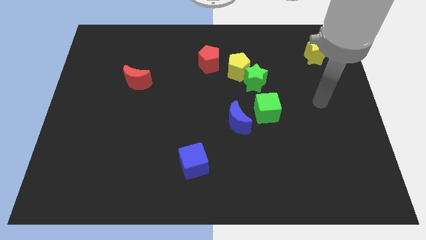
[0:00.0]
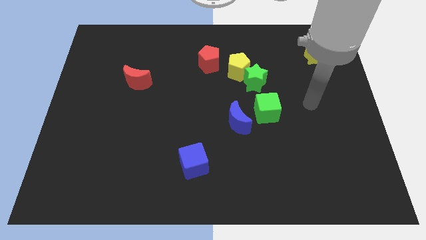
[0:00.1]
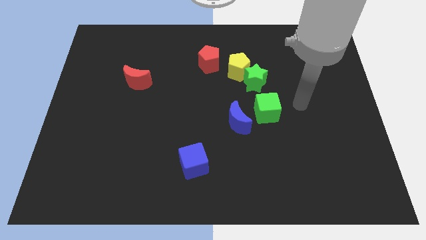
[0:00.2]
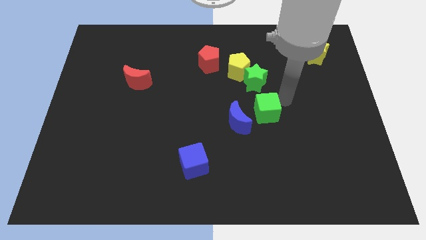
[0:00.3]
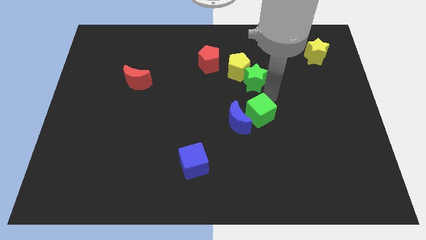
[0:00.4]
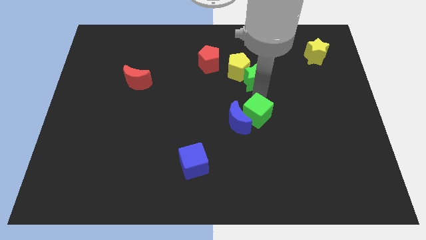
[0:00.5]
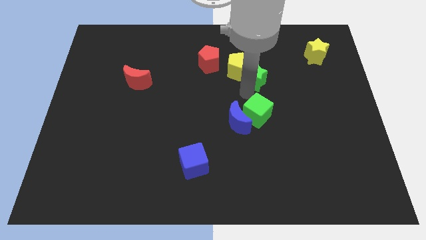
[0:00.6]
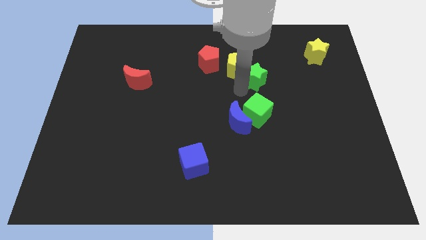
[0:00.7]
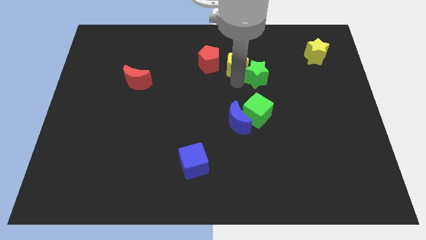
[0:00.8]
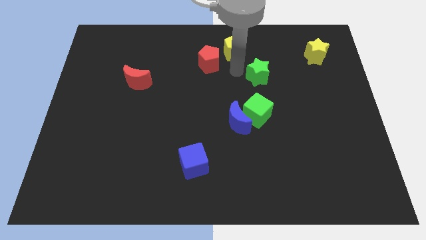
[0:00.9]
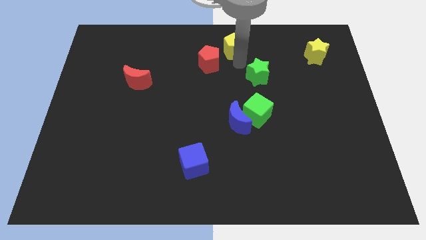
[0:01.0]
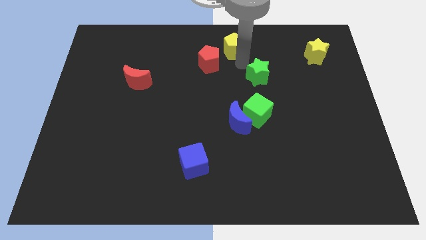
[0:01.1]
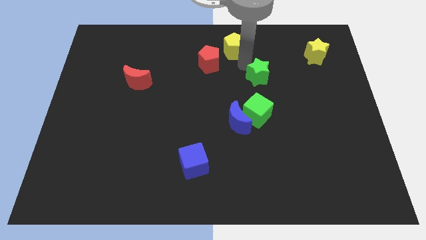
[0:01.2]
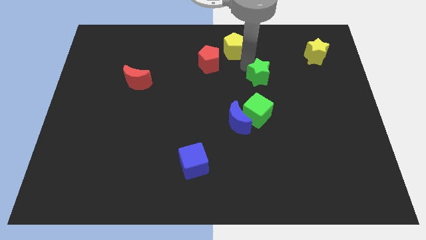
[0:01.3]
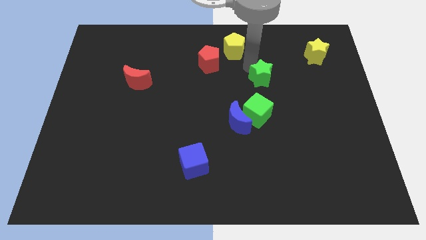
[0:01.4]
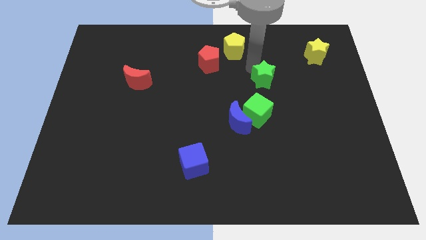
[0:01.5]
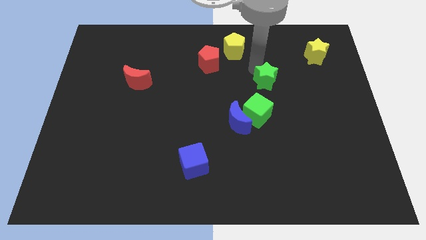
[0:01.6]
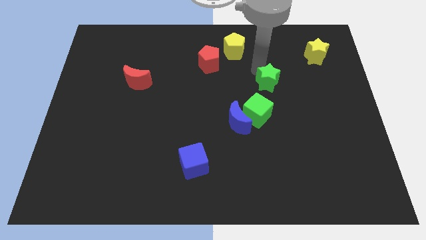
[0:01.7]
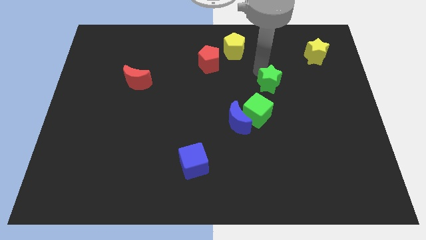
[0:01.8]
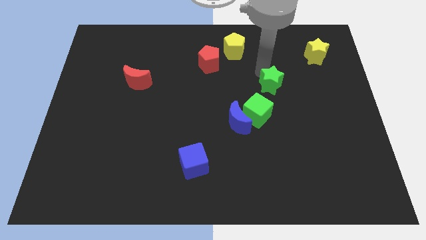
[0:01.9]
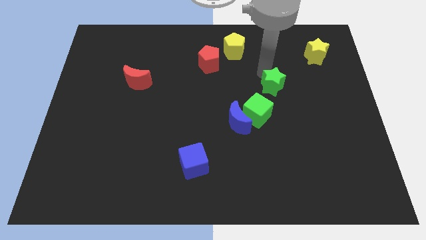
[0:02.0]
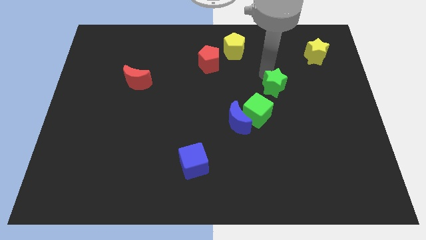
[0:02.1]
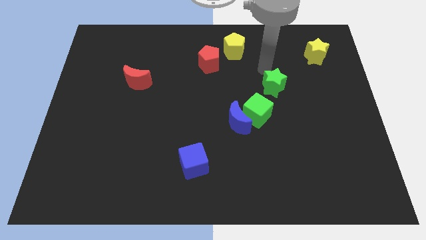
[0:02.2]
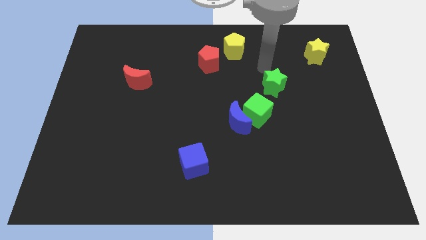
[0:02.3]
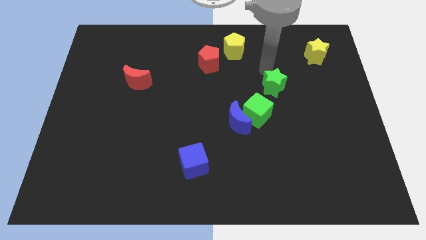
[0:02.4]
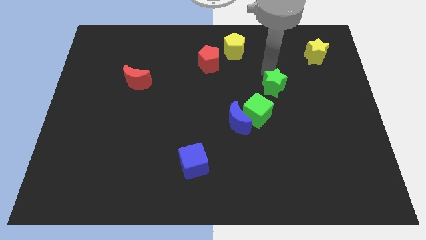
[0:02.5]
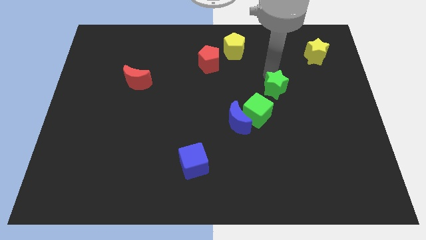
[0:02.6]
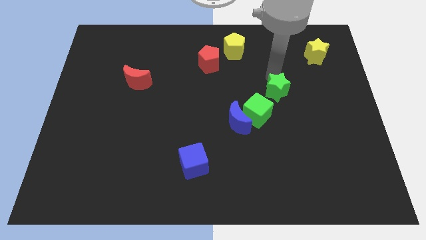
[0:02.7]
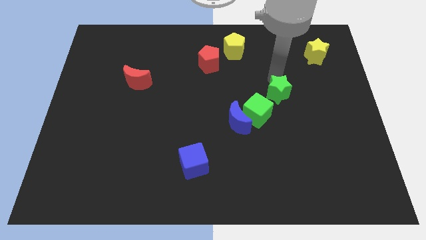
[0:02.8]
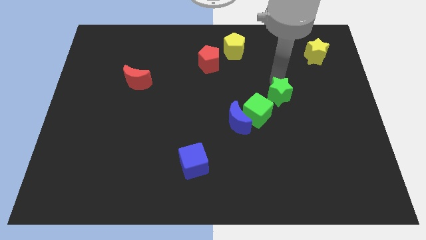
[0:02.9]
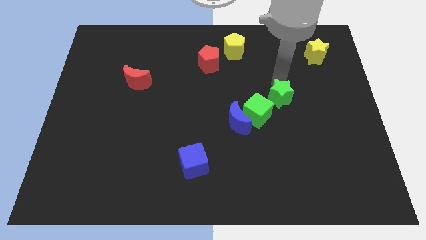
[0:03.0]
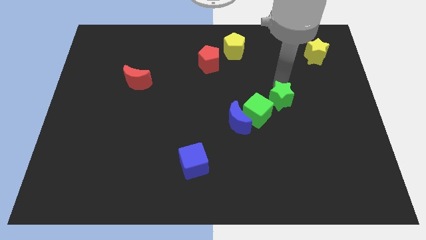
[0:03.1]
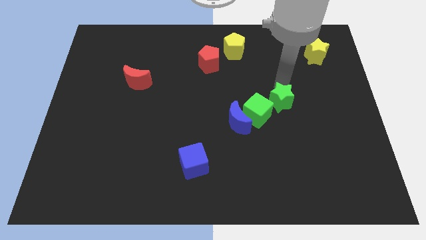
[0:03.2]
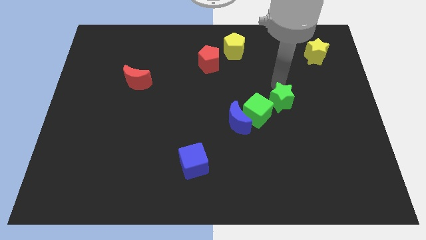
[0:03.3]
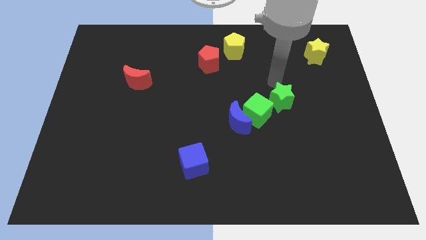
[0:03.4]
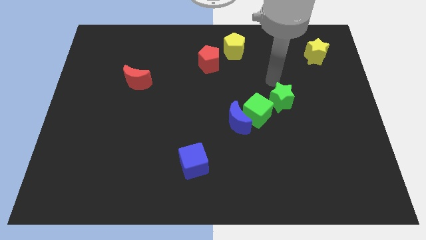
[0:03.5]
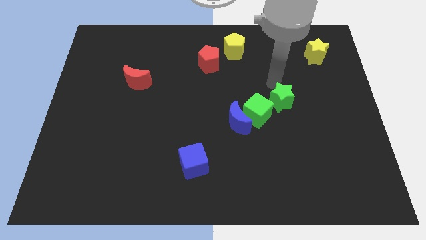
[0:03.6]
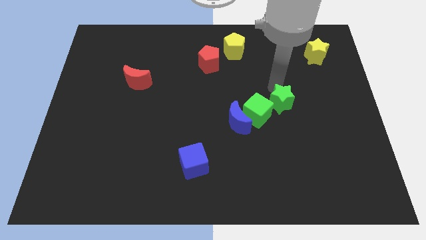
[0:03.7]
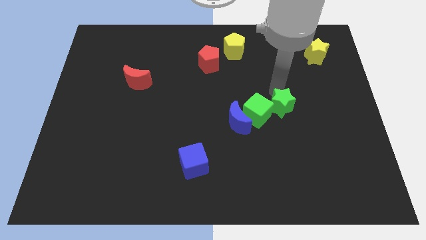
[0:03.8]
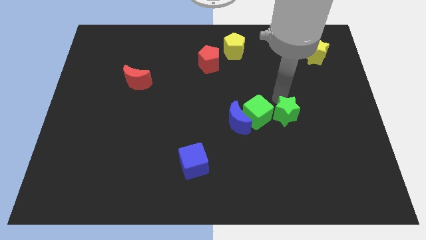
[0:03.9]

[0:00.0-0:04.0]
move the green star a little downwards

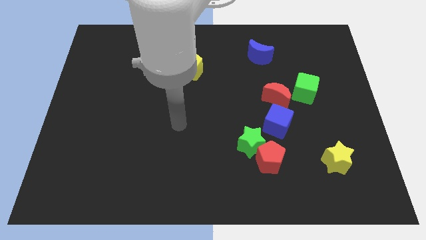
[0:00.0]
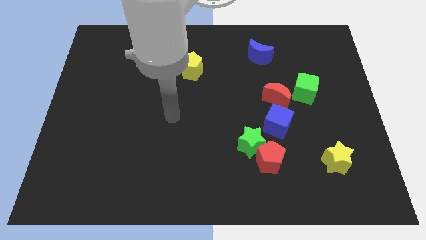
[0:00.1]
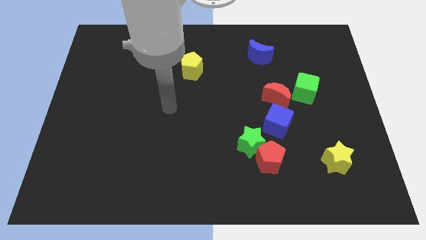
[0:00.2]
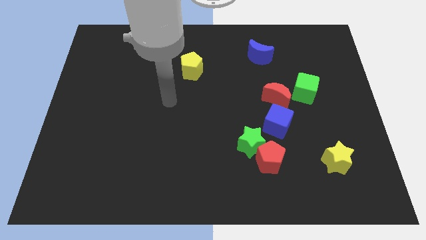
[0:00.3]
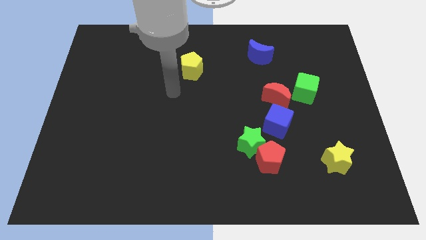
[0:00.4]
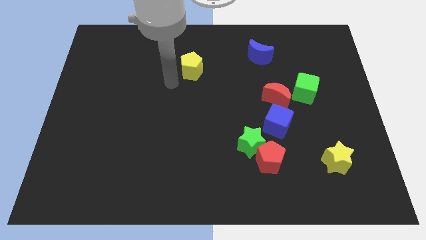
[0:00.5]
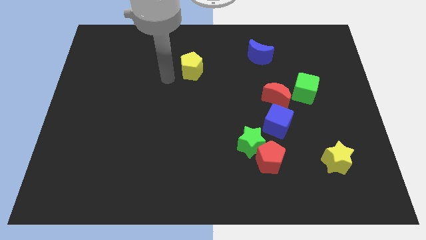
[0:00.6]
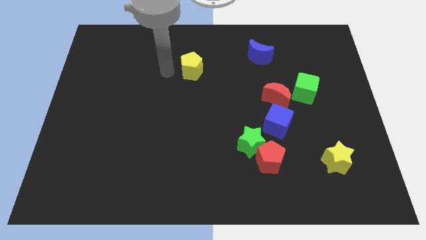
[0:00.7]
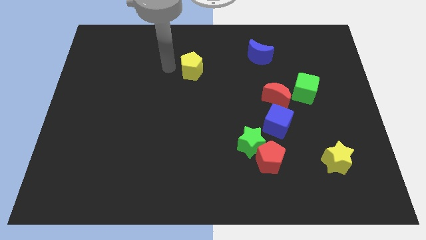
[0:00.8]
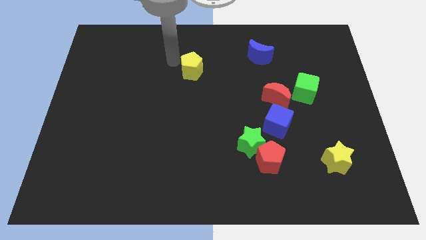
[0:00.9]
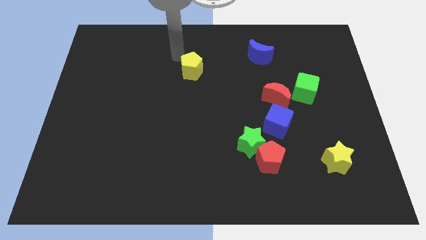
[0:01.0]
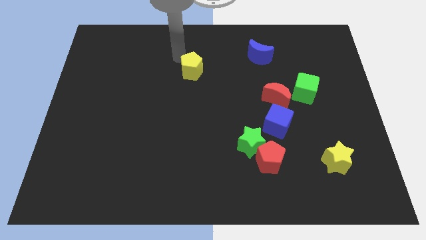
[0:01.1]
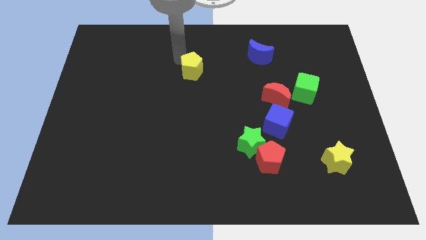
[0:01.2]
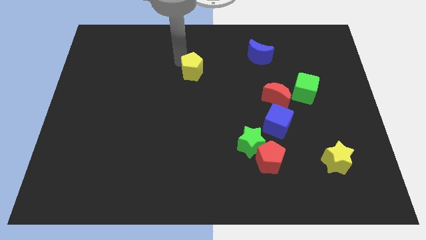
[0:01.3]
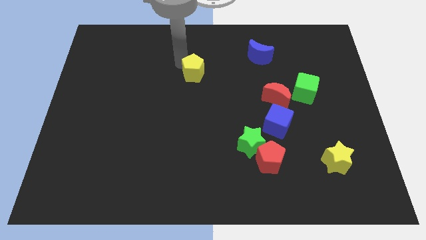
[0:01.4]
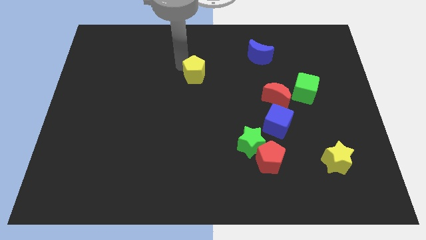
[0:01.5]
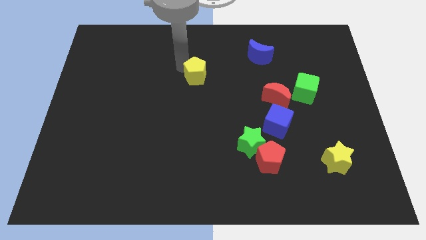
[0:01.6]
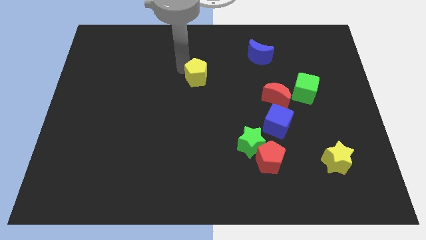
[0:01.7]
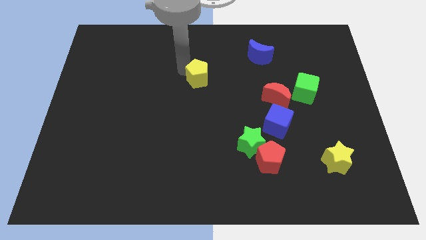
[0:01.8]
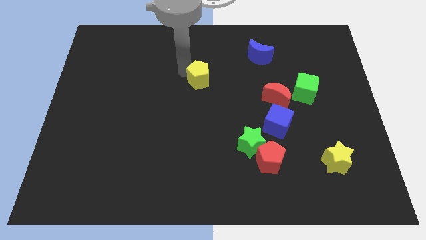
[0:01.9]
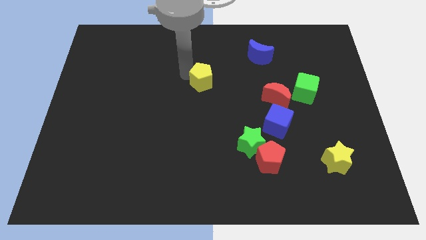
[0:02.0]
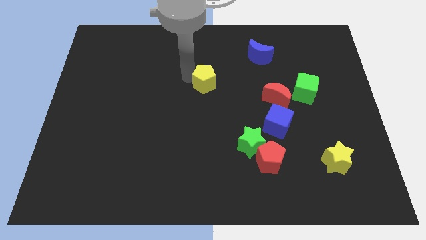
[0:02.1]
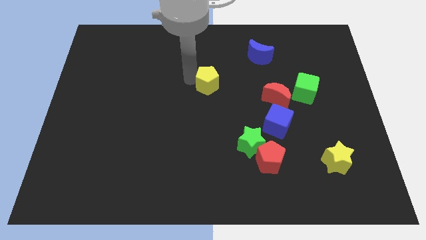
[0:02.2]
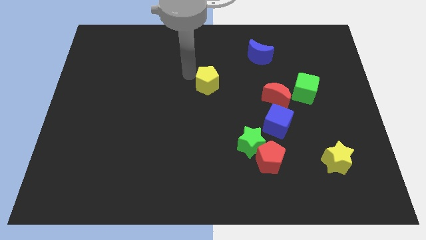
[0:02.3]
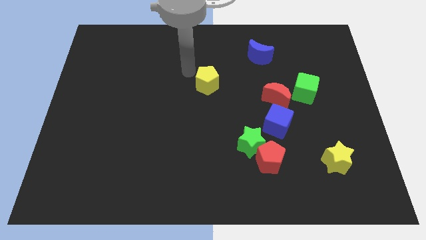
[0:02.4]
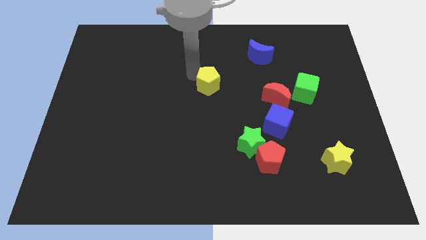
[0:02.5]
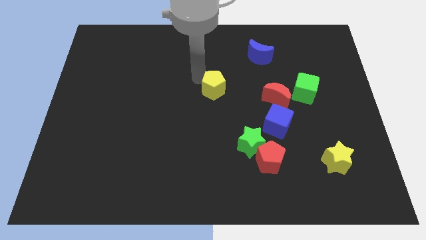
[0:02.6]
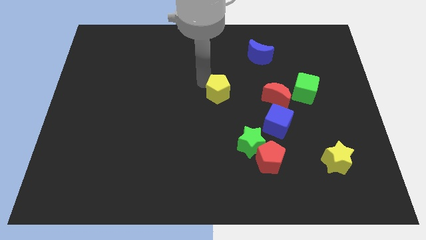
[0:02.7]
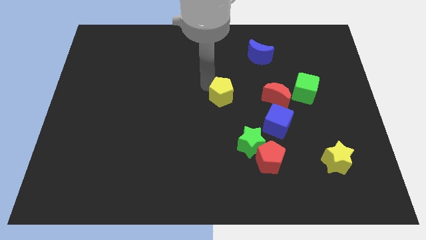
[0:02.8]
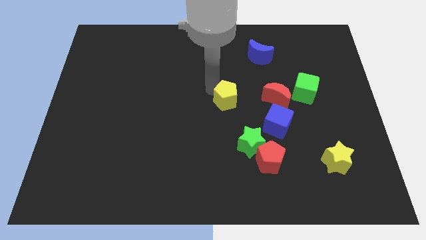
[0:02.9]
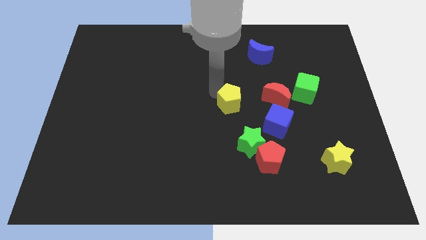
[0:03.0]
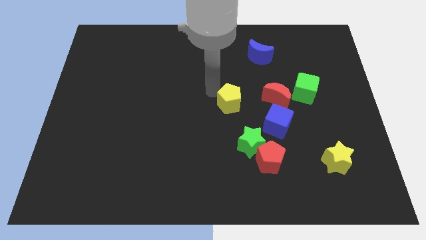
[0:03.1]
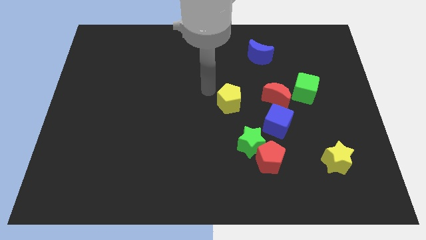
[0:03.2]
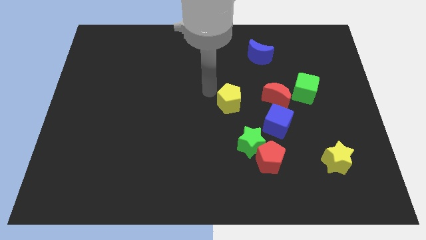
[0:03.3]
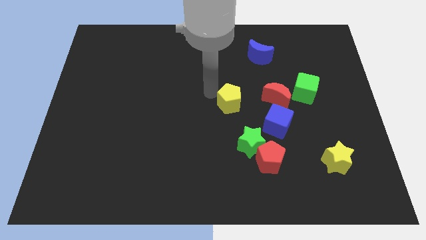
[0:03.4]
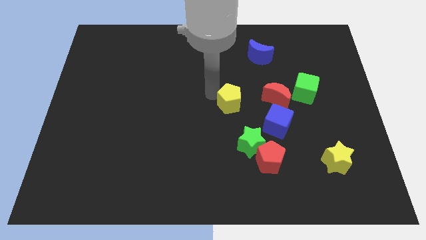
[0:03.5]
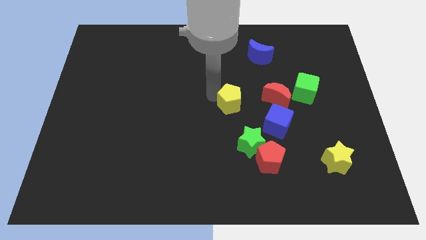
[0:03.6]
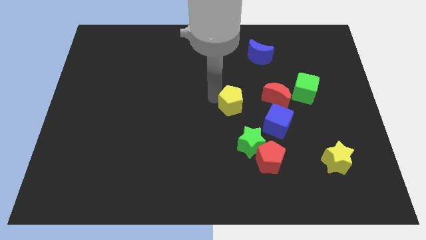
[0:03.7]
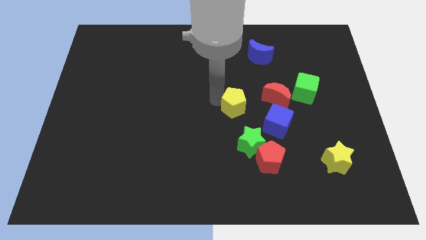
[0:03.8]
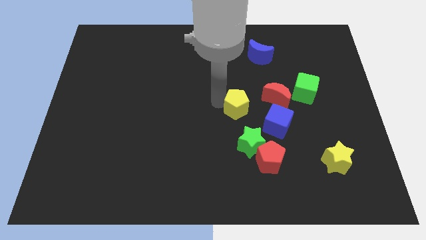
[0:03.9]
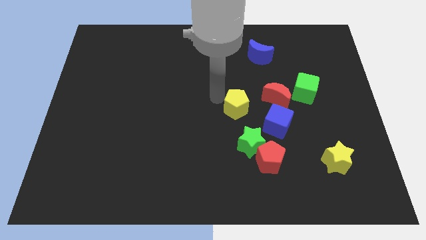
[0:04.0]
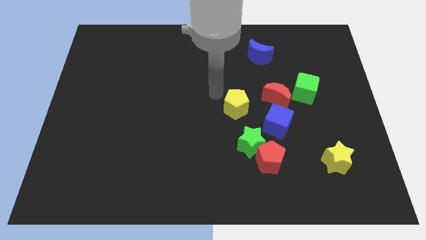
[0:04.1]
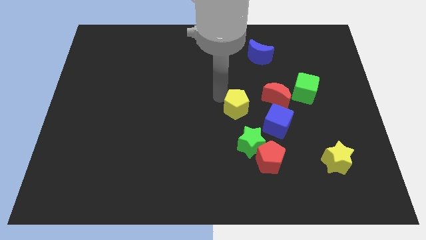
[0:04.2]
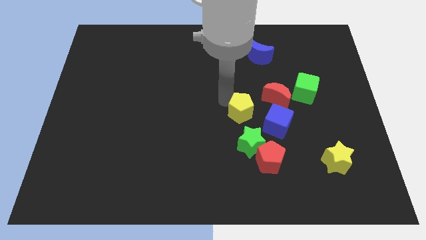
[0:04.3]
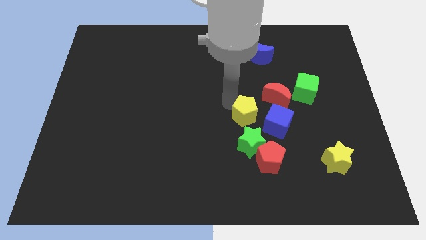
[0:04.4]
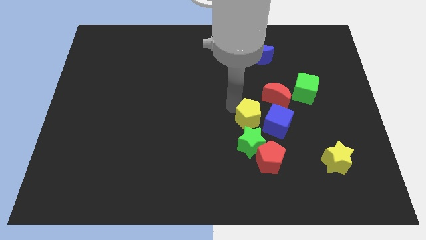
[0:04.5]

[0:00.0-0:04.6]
slide the yellow pentagon down and right
